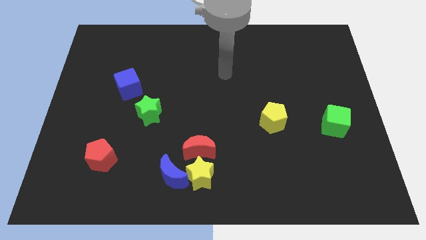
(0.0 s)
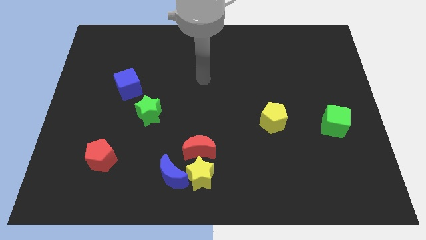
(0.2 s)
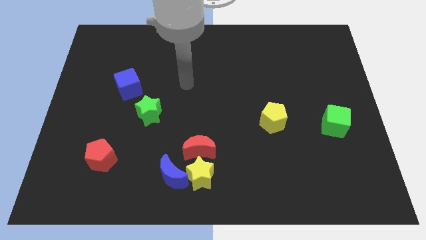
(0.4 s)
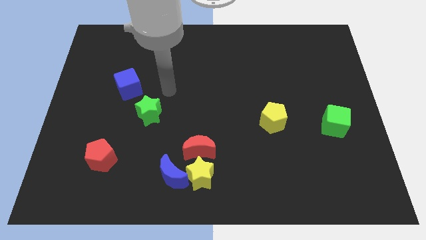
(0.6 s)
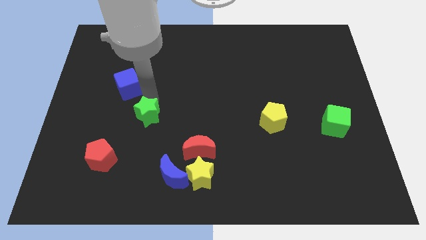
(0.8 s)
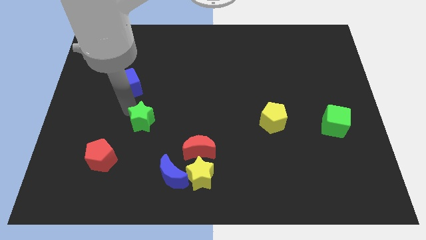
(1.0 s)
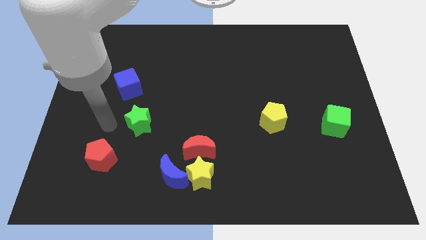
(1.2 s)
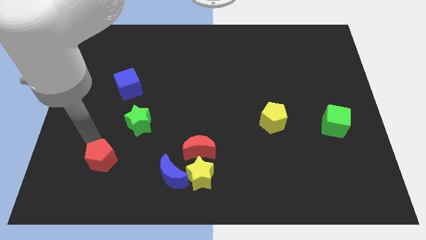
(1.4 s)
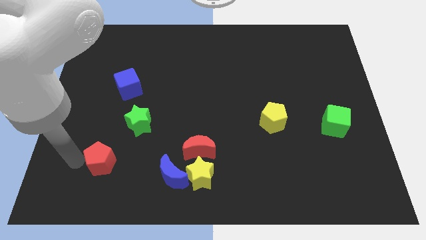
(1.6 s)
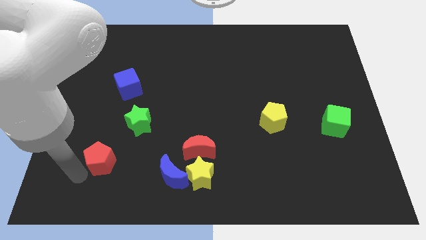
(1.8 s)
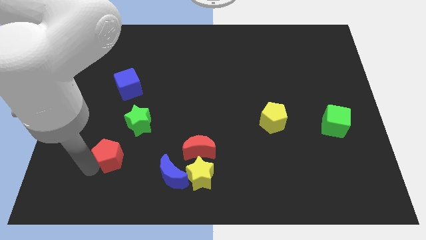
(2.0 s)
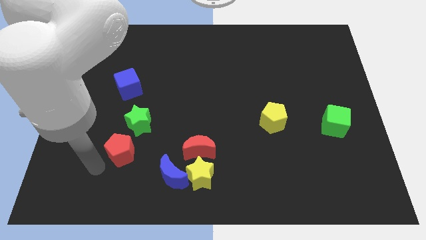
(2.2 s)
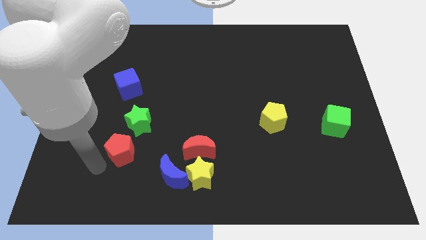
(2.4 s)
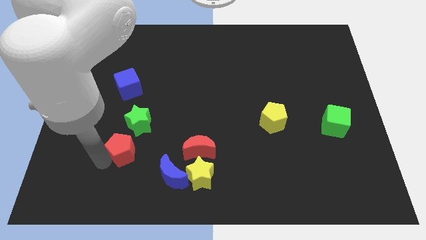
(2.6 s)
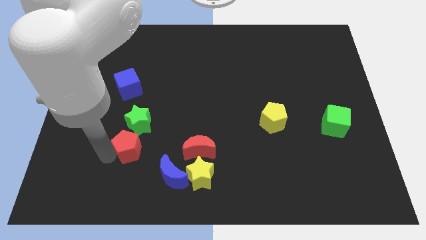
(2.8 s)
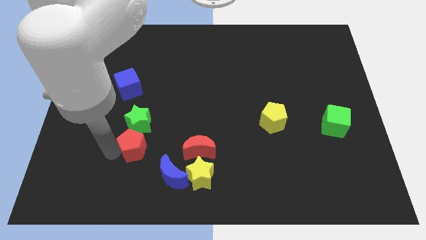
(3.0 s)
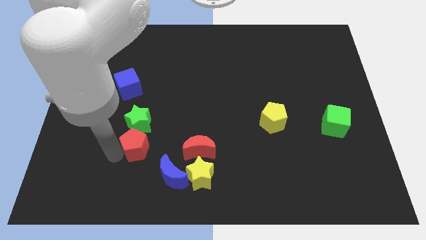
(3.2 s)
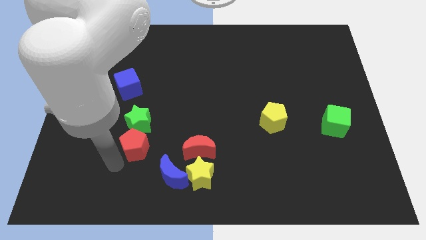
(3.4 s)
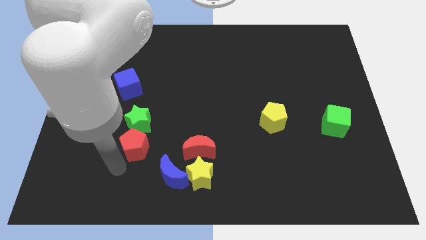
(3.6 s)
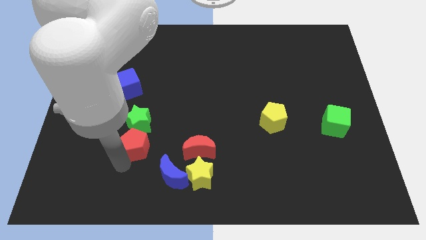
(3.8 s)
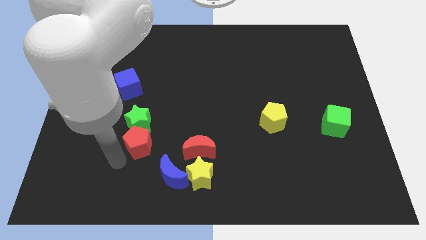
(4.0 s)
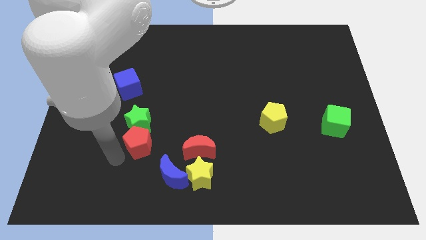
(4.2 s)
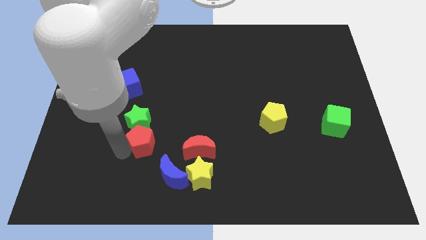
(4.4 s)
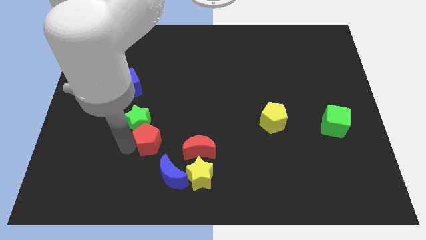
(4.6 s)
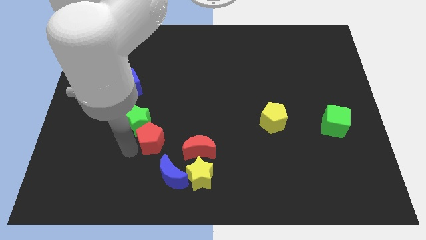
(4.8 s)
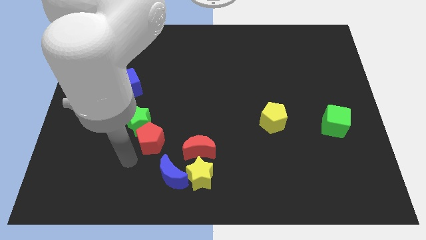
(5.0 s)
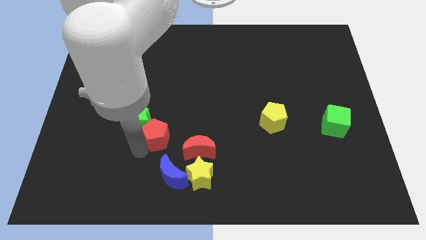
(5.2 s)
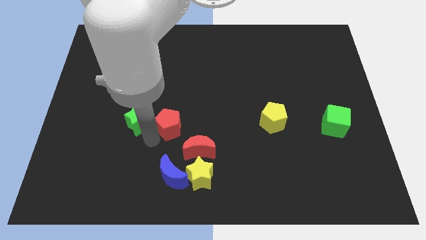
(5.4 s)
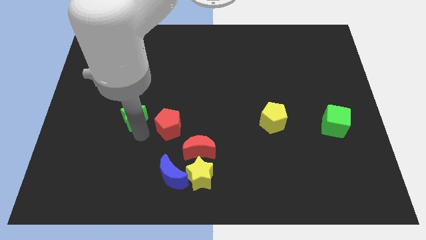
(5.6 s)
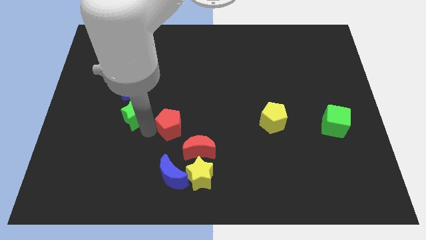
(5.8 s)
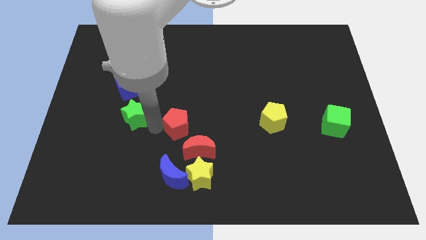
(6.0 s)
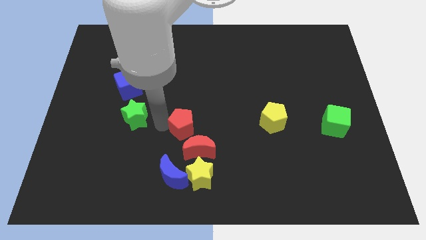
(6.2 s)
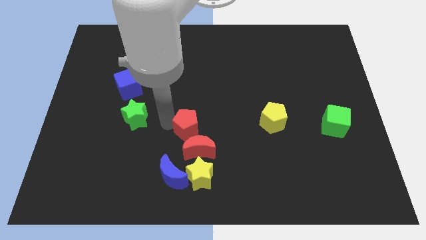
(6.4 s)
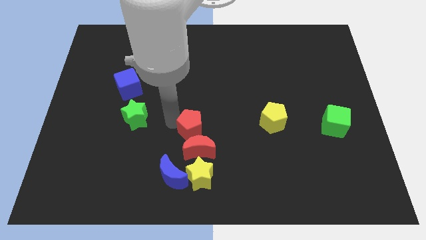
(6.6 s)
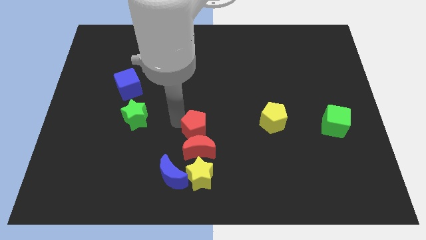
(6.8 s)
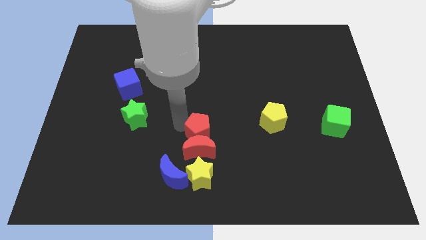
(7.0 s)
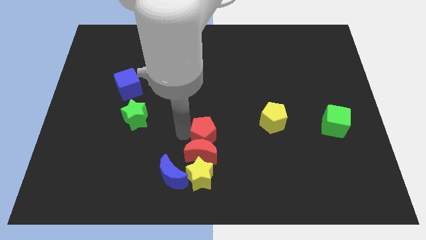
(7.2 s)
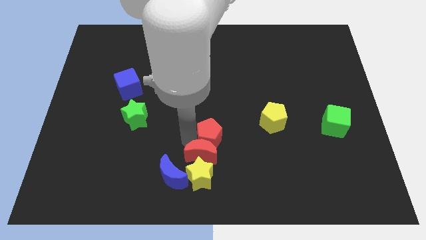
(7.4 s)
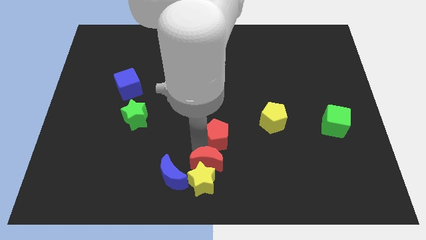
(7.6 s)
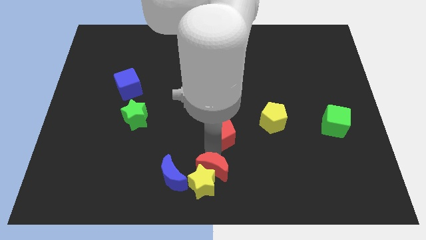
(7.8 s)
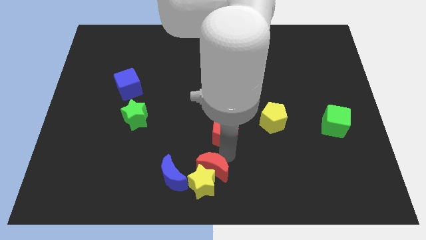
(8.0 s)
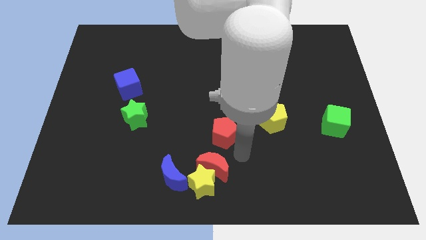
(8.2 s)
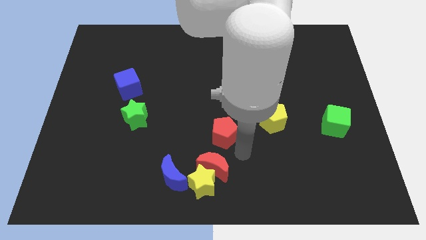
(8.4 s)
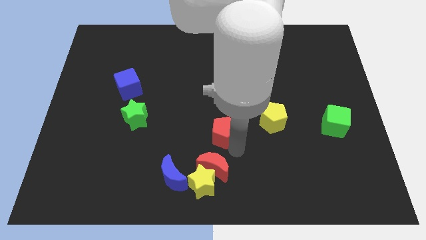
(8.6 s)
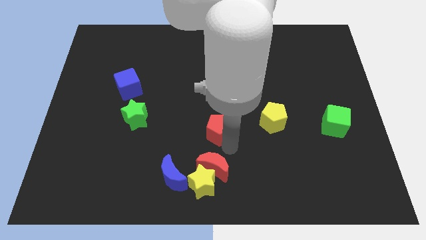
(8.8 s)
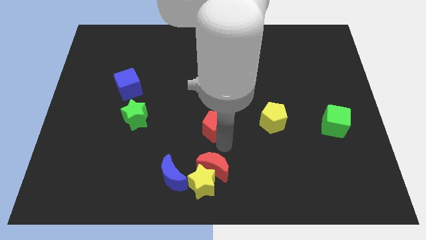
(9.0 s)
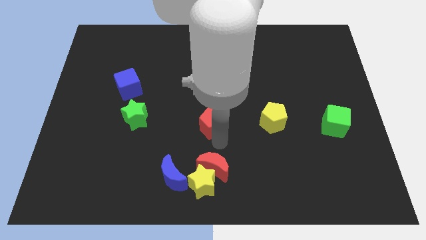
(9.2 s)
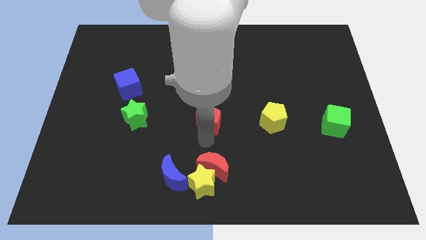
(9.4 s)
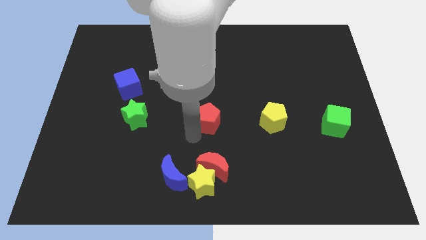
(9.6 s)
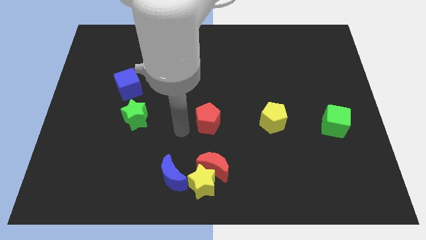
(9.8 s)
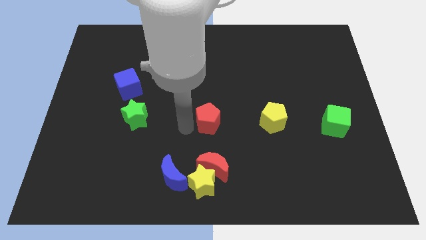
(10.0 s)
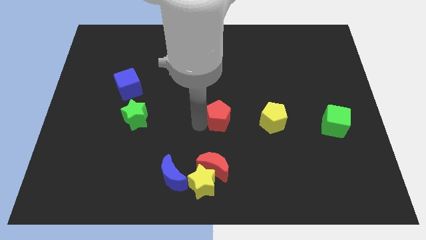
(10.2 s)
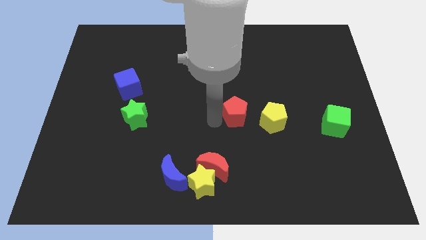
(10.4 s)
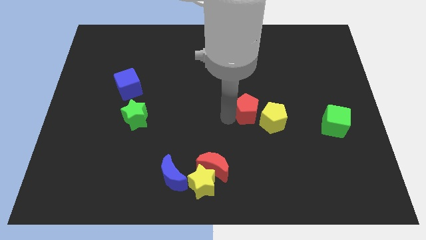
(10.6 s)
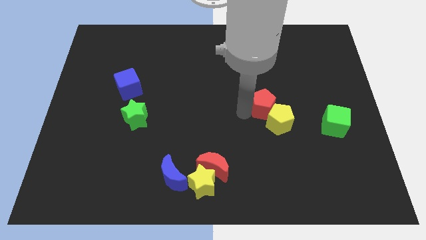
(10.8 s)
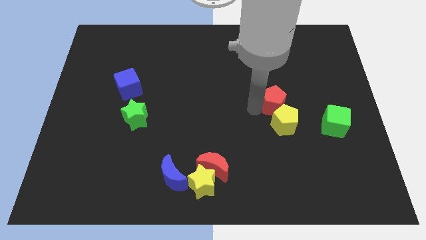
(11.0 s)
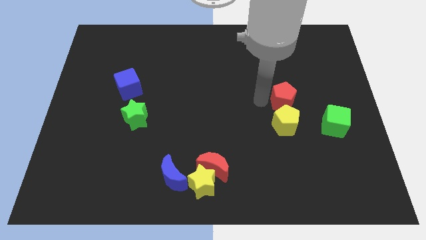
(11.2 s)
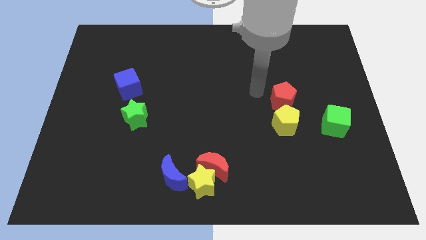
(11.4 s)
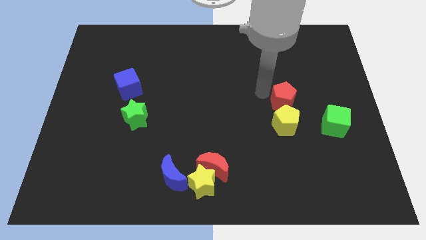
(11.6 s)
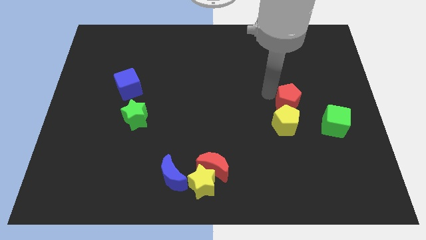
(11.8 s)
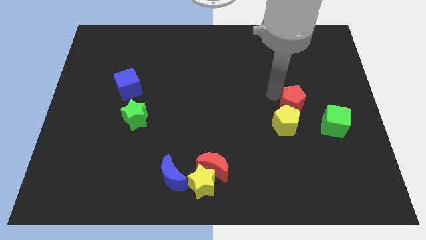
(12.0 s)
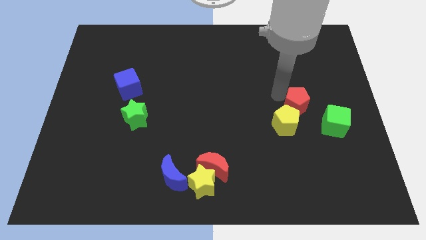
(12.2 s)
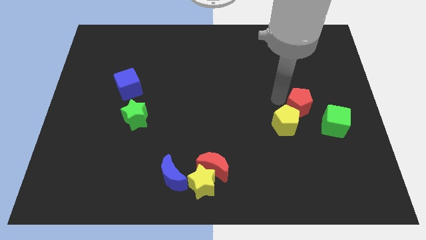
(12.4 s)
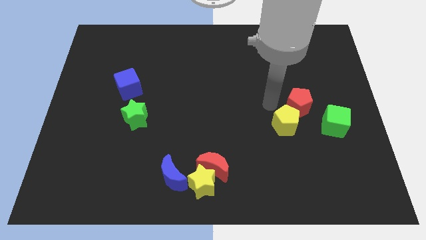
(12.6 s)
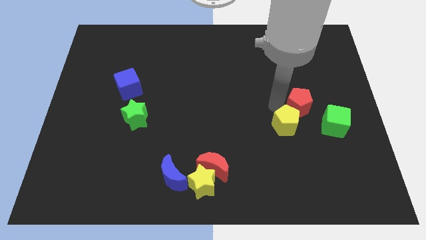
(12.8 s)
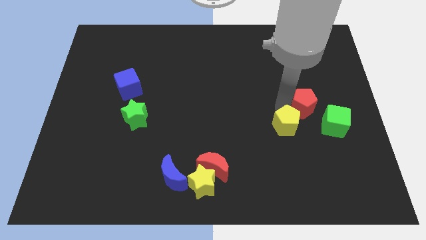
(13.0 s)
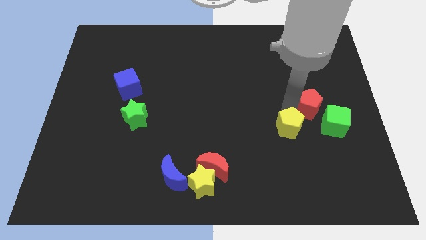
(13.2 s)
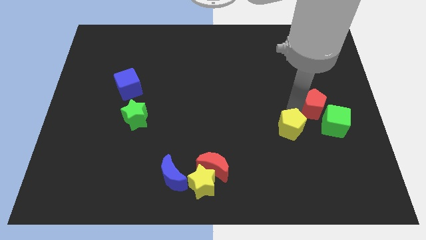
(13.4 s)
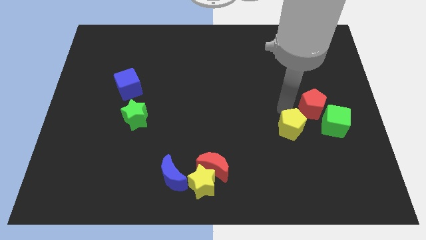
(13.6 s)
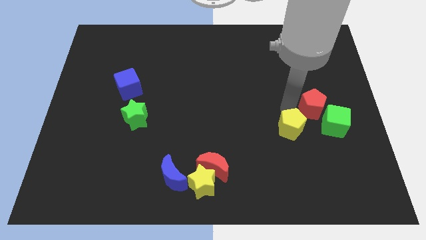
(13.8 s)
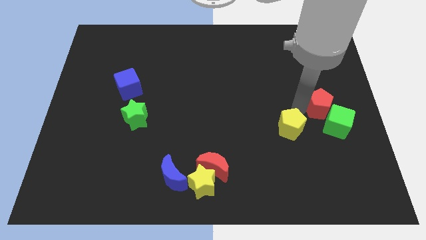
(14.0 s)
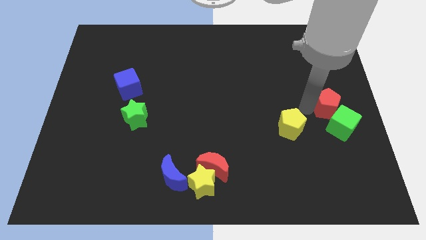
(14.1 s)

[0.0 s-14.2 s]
slide the red pentagon to the right side
